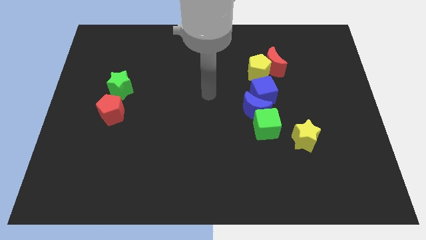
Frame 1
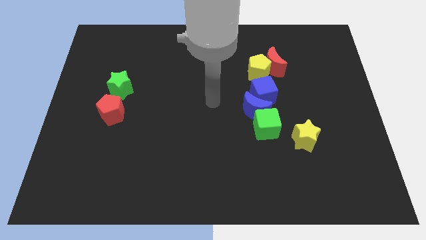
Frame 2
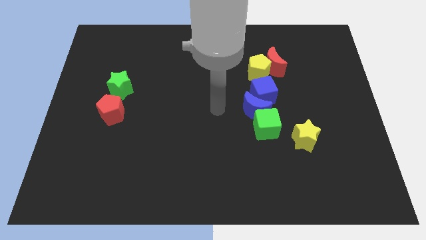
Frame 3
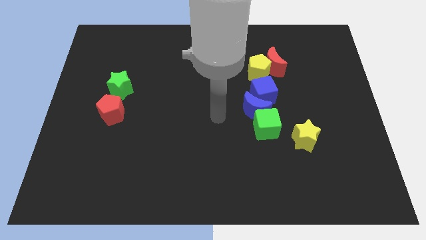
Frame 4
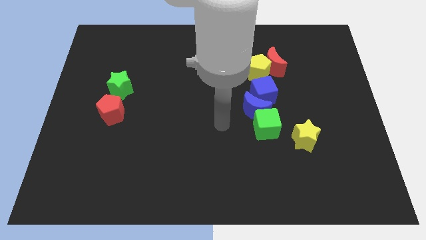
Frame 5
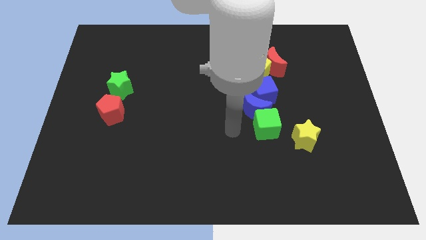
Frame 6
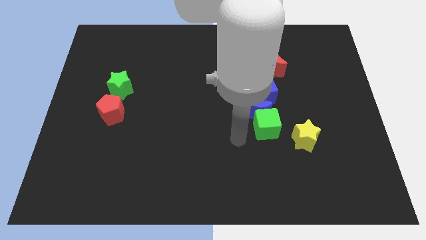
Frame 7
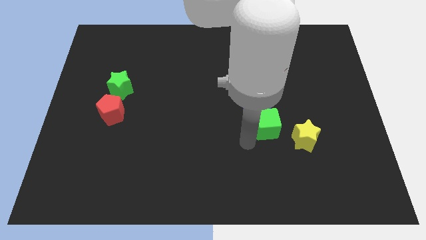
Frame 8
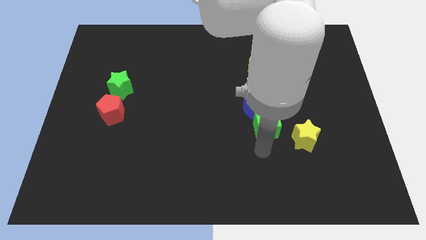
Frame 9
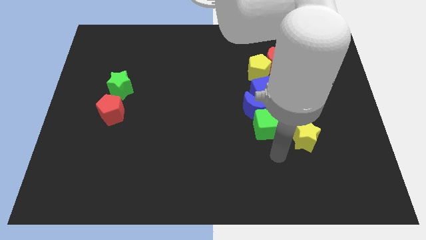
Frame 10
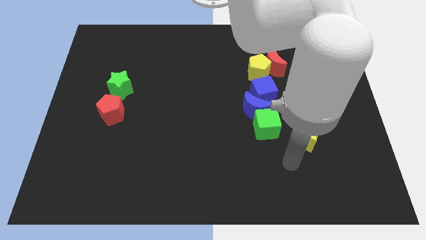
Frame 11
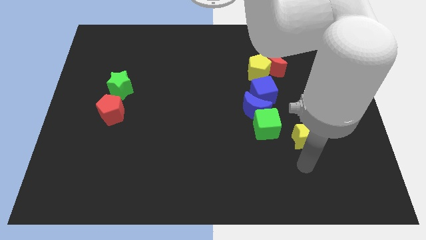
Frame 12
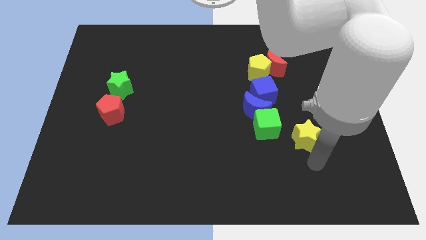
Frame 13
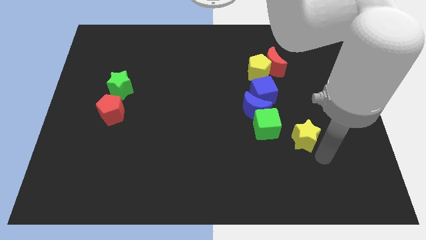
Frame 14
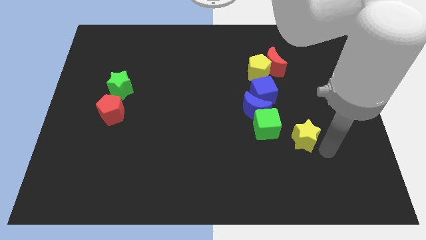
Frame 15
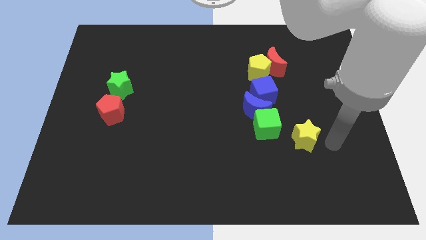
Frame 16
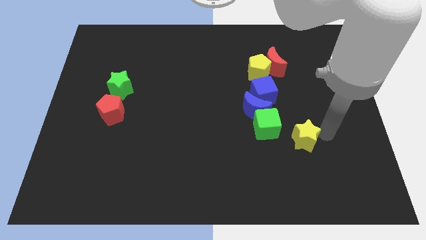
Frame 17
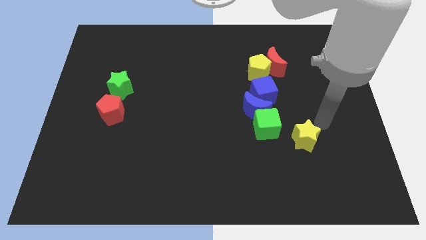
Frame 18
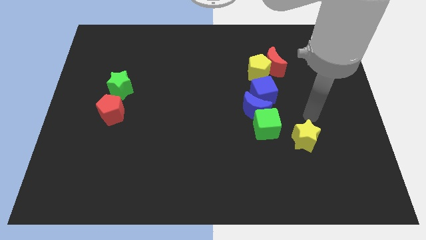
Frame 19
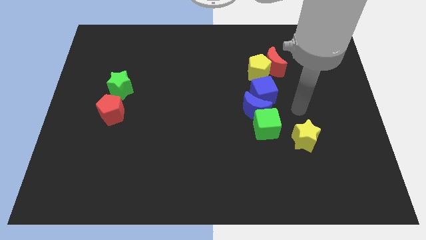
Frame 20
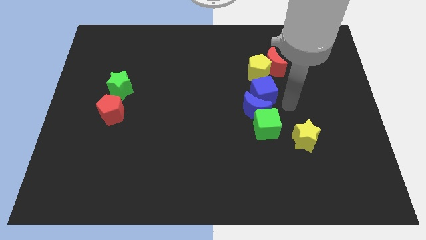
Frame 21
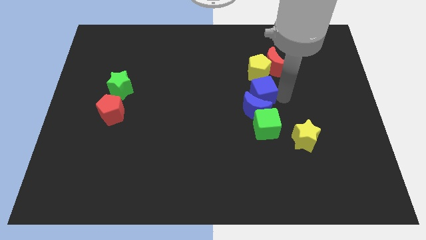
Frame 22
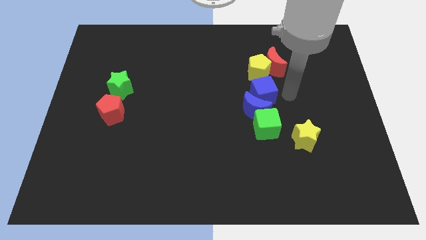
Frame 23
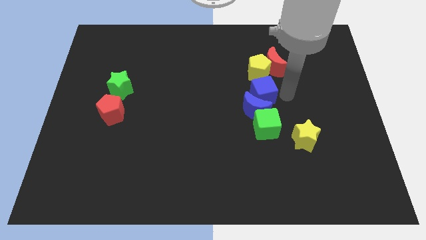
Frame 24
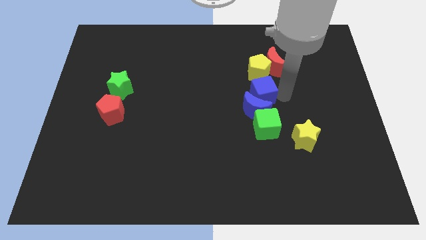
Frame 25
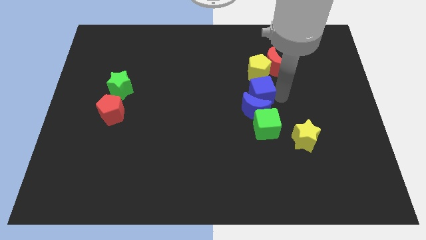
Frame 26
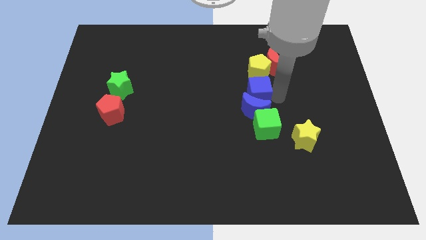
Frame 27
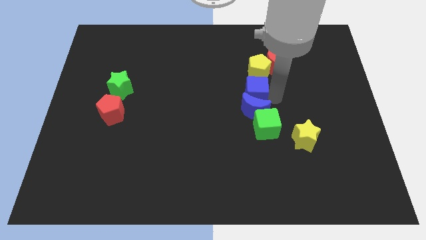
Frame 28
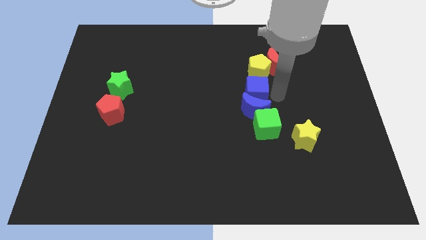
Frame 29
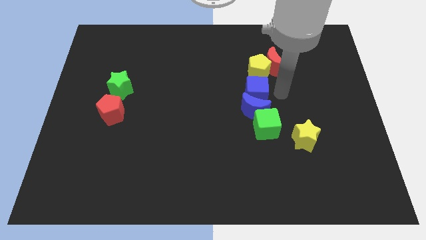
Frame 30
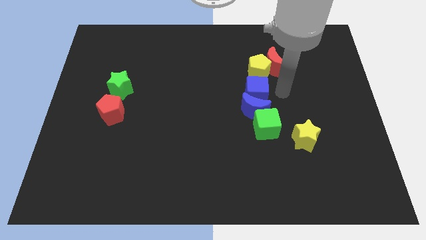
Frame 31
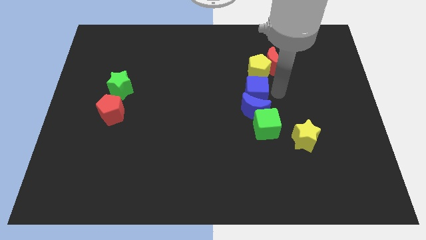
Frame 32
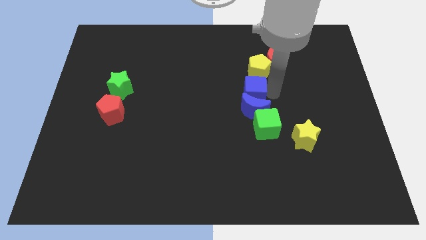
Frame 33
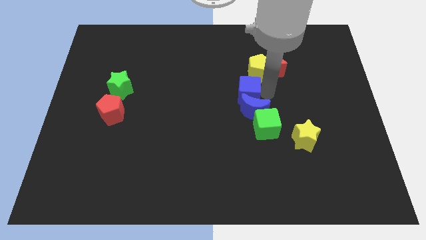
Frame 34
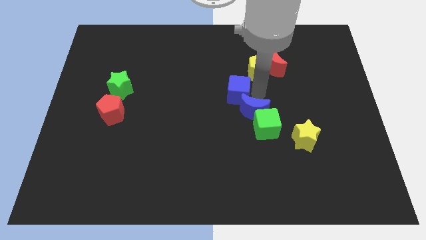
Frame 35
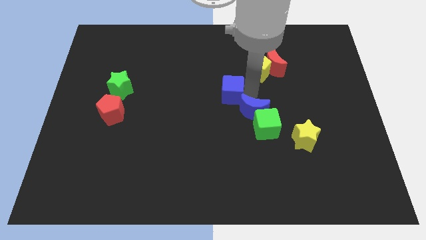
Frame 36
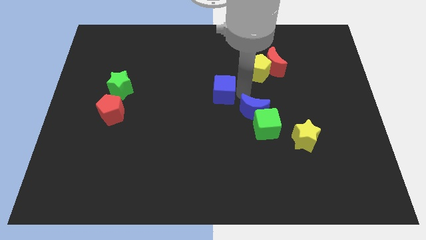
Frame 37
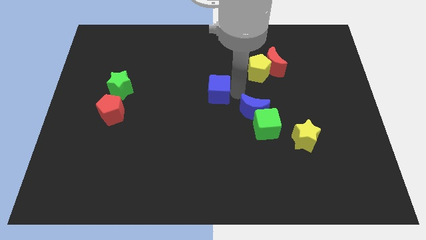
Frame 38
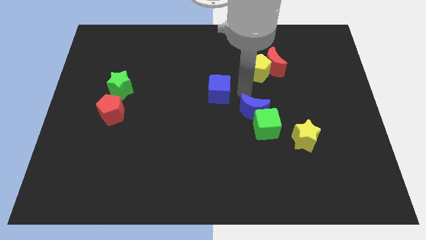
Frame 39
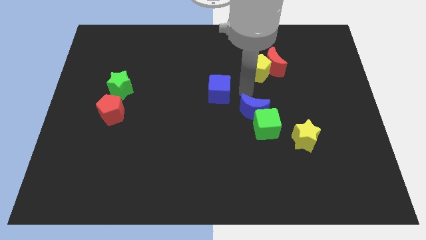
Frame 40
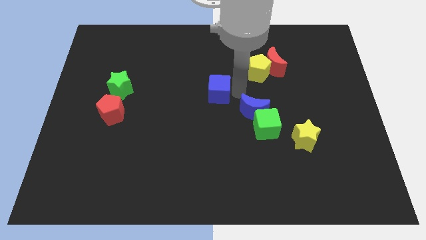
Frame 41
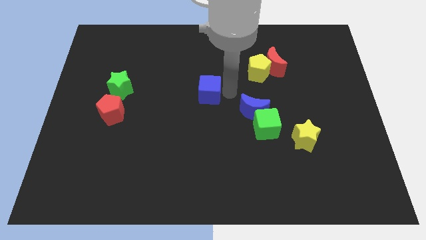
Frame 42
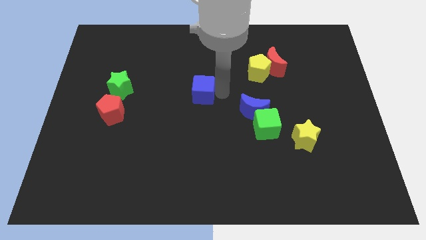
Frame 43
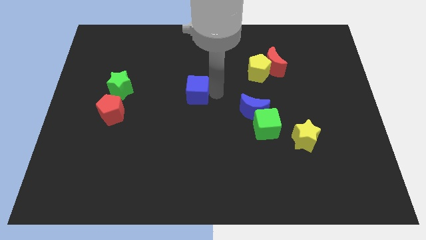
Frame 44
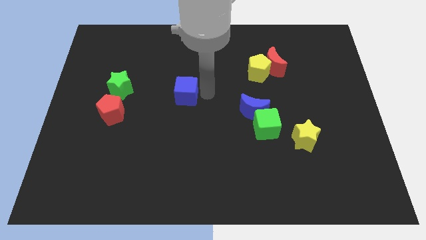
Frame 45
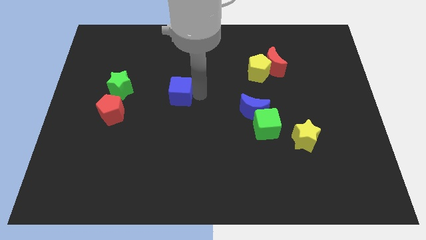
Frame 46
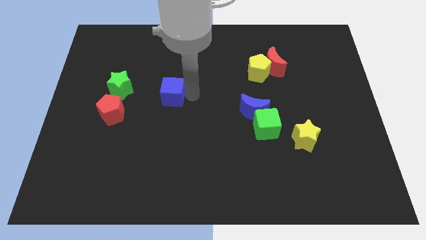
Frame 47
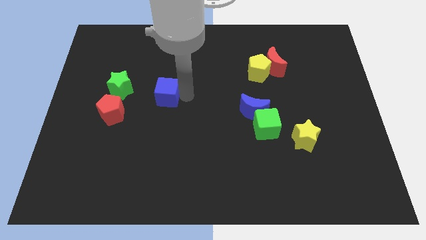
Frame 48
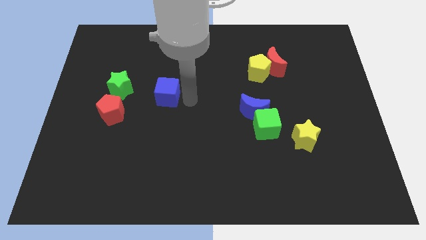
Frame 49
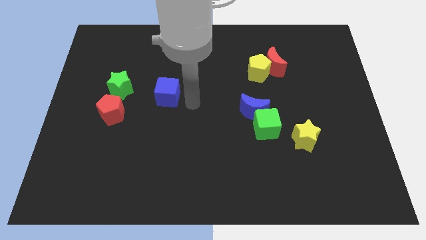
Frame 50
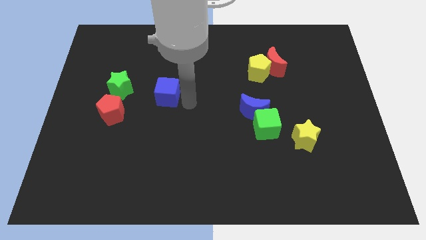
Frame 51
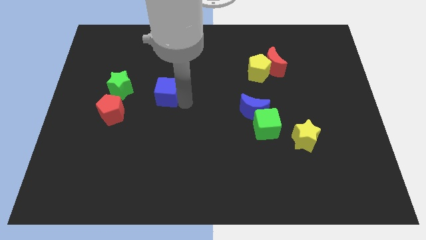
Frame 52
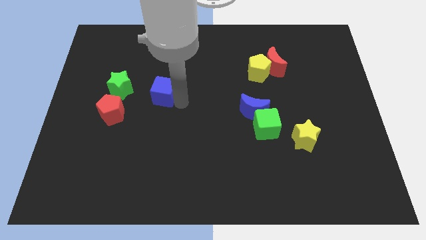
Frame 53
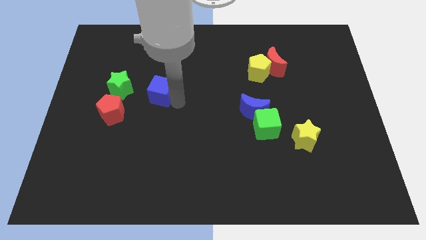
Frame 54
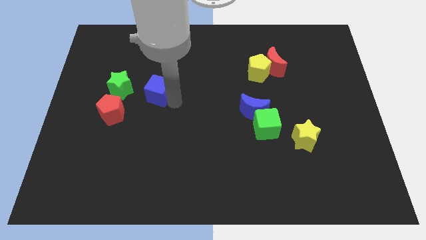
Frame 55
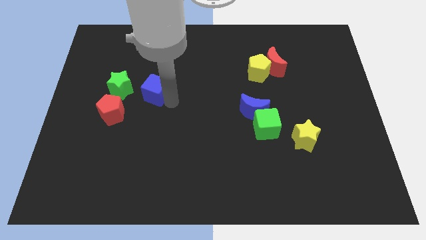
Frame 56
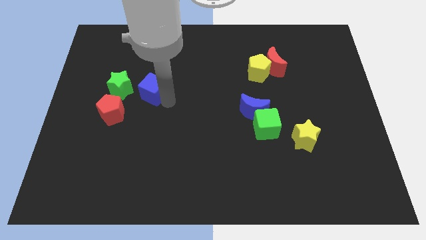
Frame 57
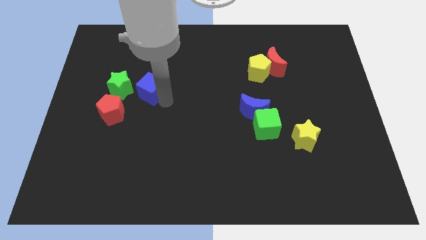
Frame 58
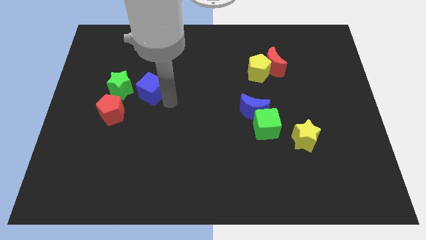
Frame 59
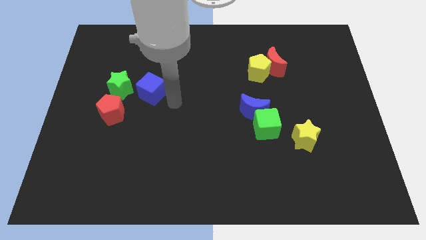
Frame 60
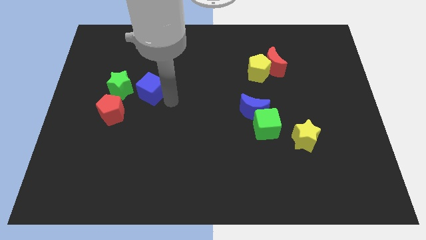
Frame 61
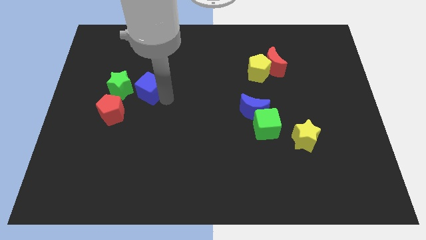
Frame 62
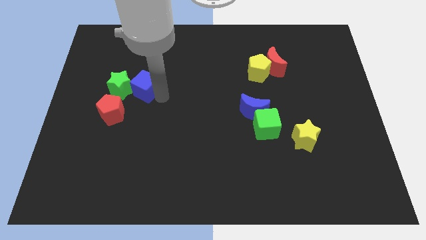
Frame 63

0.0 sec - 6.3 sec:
slide the blue cube to the green star

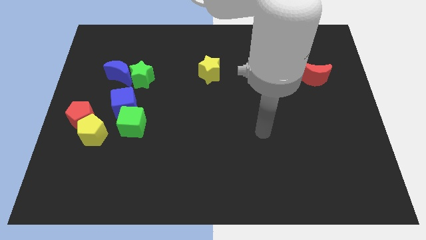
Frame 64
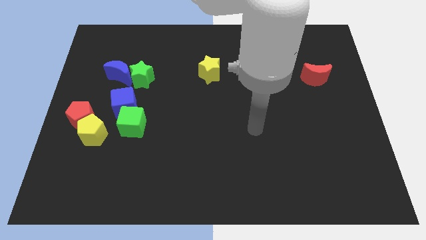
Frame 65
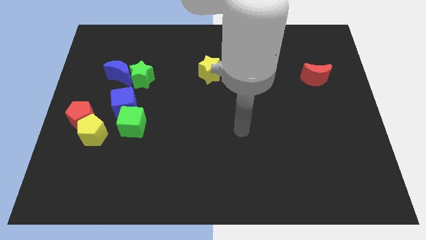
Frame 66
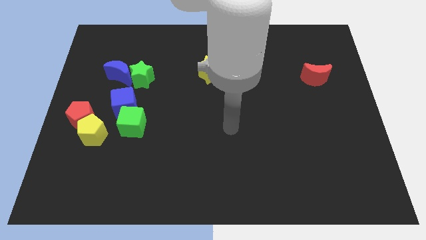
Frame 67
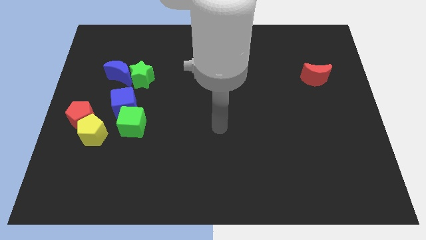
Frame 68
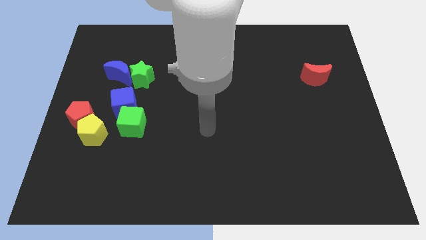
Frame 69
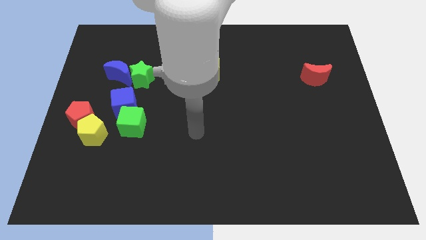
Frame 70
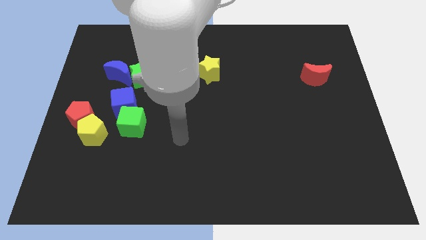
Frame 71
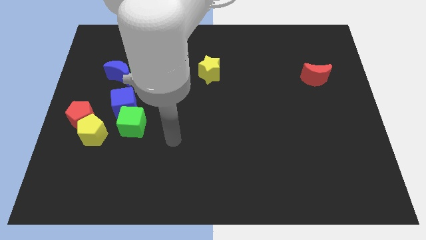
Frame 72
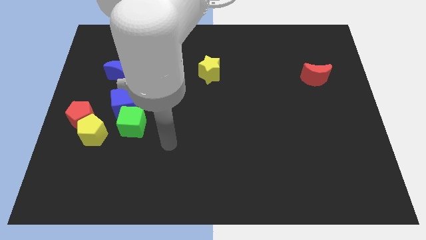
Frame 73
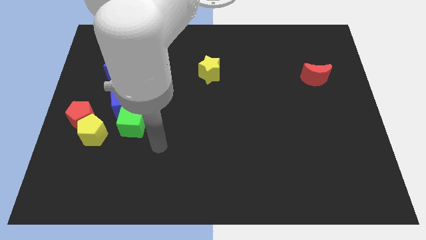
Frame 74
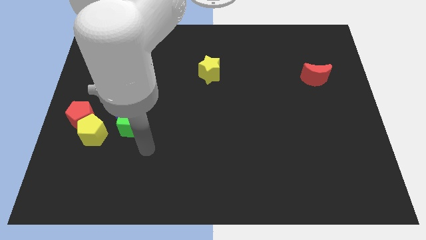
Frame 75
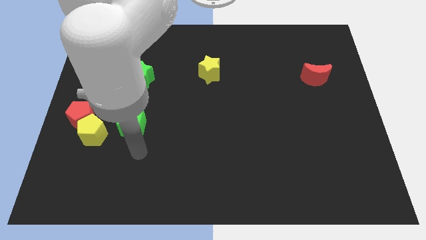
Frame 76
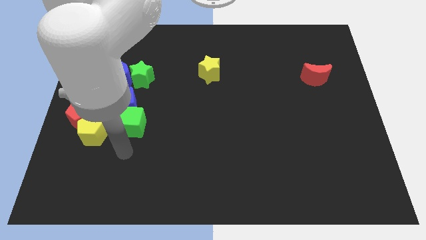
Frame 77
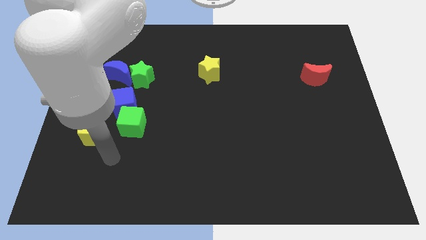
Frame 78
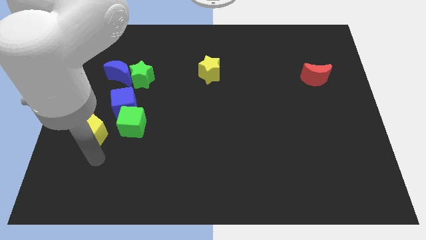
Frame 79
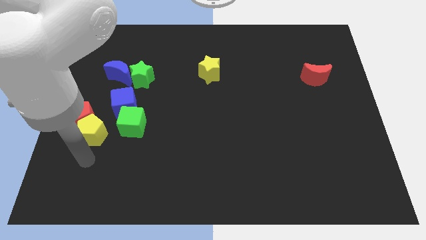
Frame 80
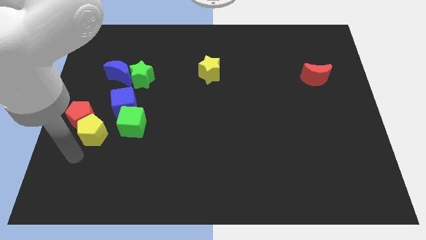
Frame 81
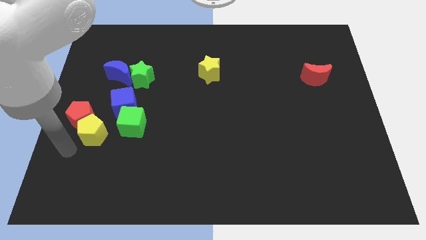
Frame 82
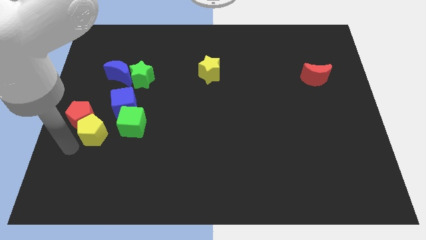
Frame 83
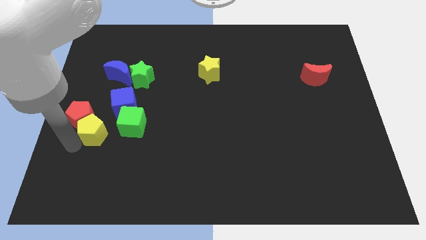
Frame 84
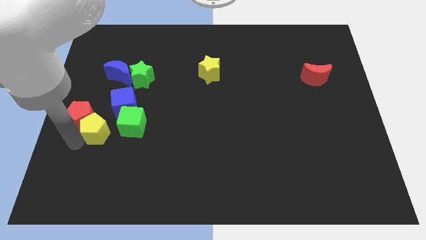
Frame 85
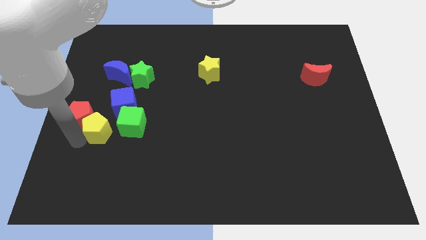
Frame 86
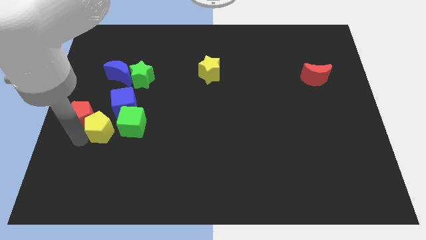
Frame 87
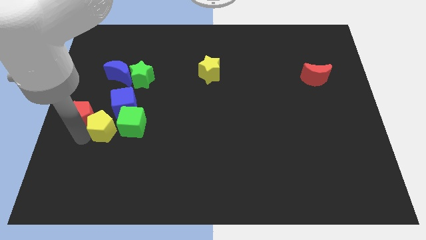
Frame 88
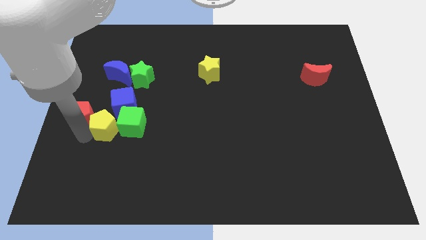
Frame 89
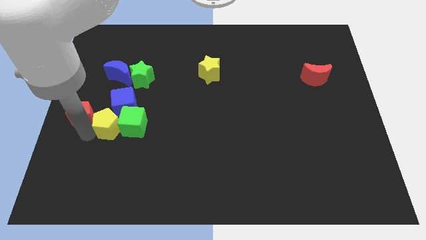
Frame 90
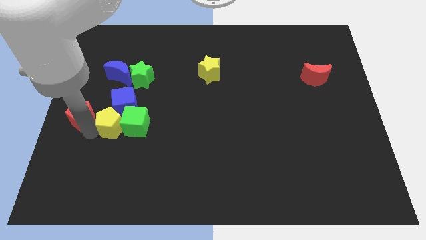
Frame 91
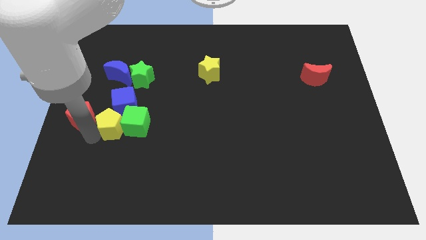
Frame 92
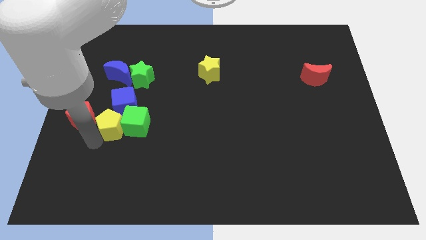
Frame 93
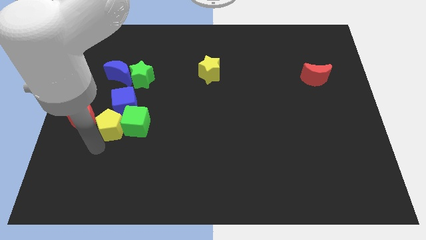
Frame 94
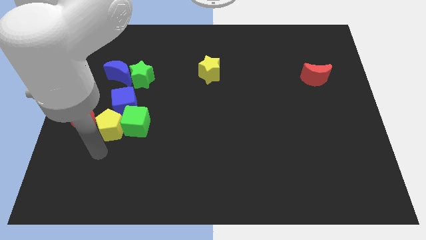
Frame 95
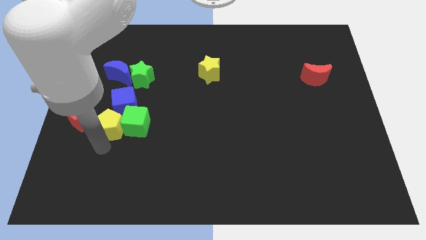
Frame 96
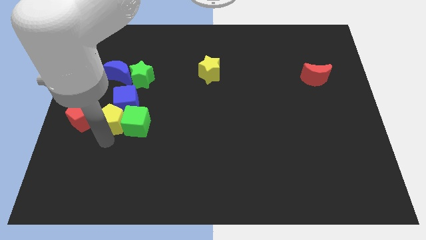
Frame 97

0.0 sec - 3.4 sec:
move the yellow pentagon next to the blue cube
